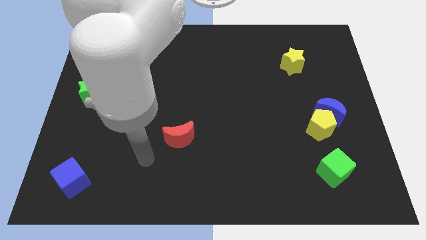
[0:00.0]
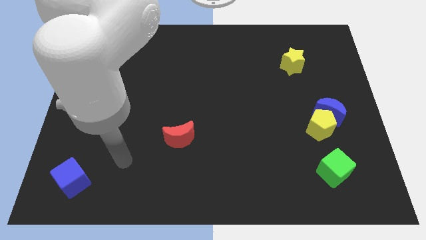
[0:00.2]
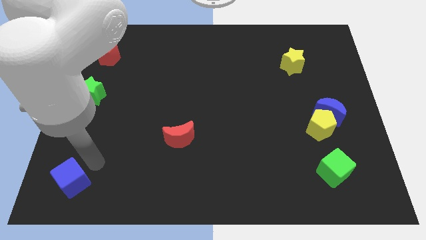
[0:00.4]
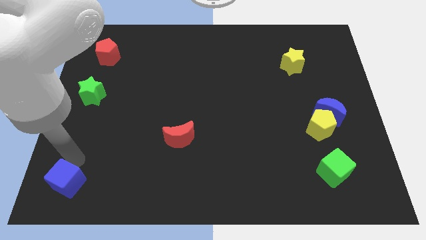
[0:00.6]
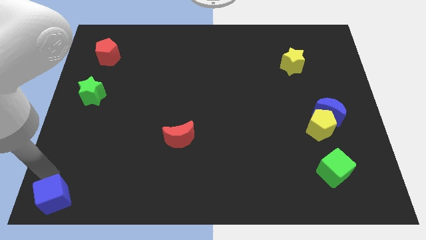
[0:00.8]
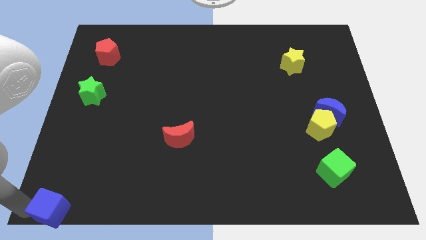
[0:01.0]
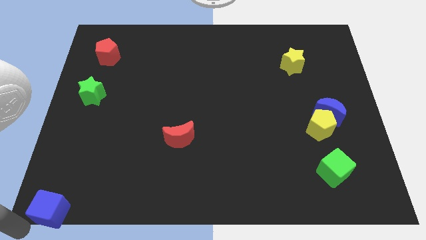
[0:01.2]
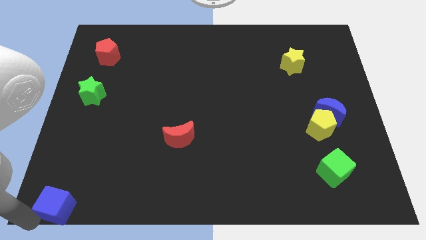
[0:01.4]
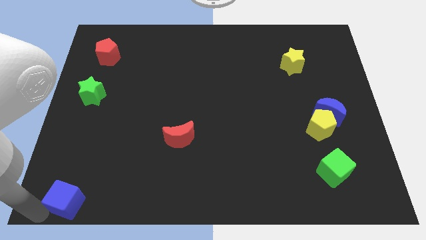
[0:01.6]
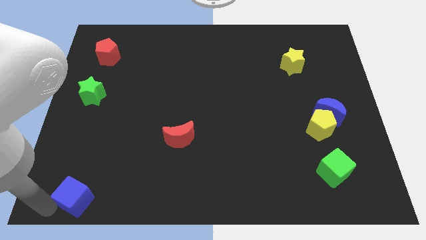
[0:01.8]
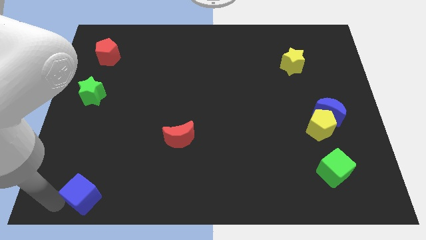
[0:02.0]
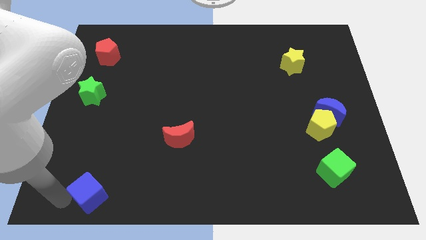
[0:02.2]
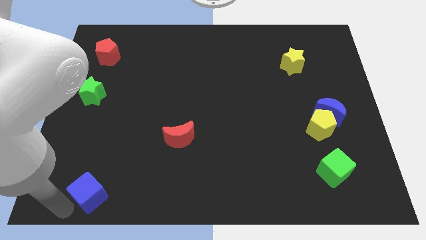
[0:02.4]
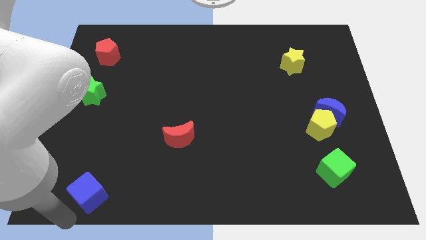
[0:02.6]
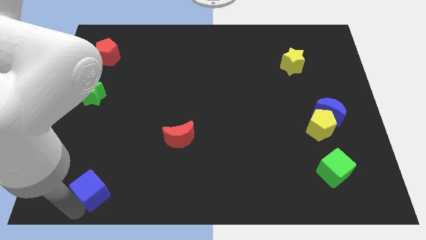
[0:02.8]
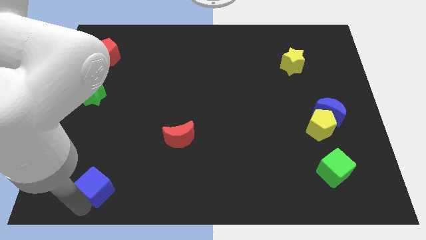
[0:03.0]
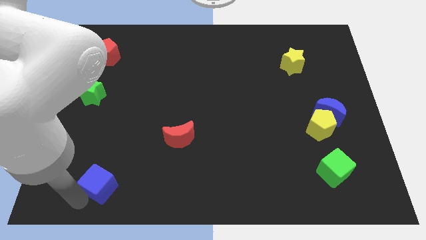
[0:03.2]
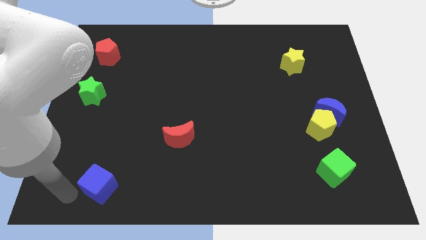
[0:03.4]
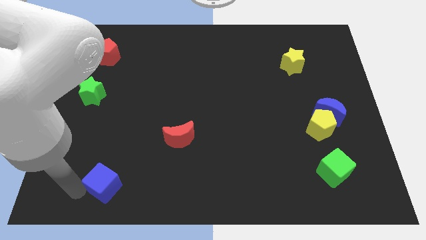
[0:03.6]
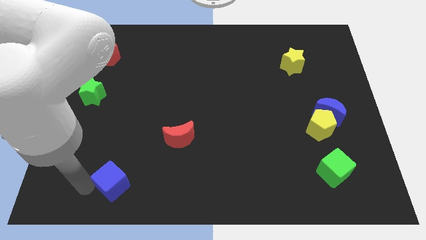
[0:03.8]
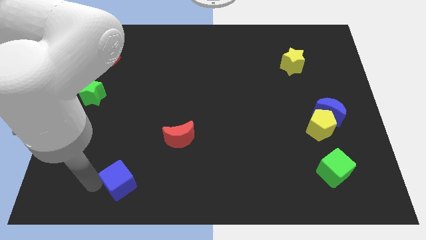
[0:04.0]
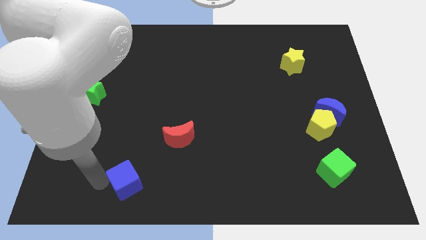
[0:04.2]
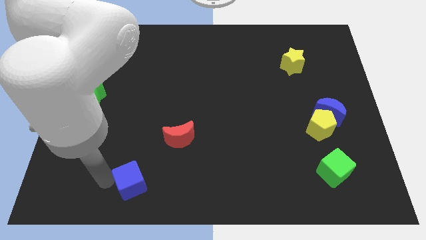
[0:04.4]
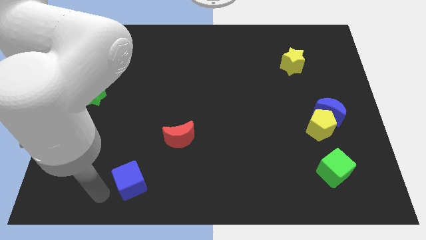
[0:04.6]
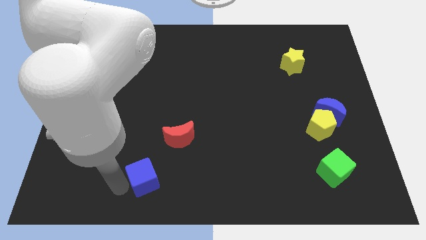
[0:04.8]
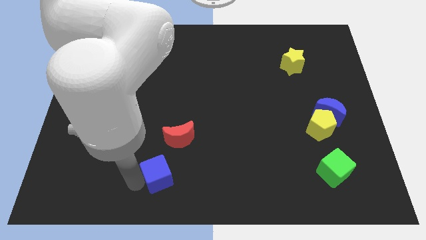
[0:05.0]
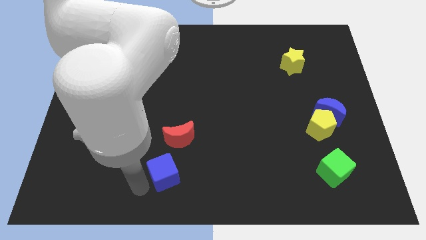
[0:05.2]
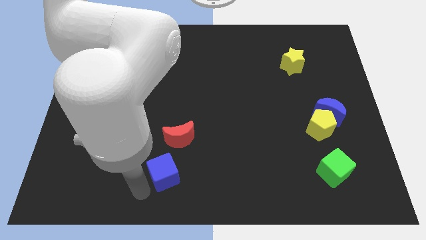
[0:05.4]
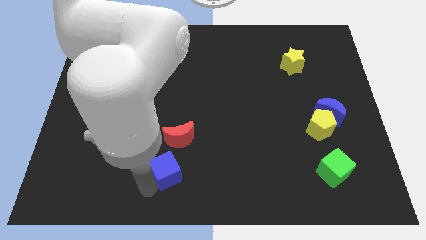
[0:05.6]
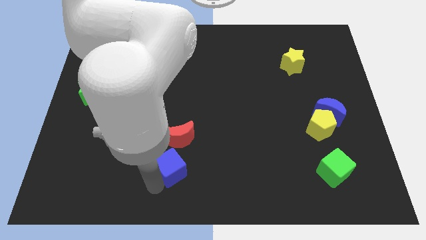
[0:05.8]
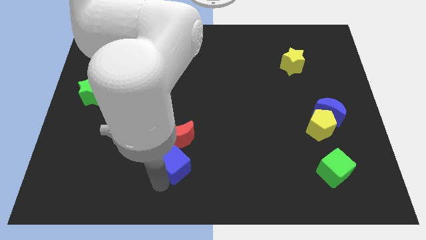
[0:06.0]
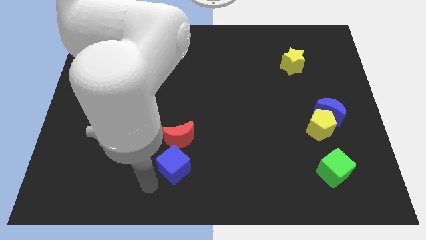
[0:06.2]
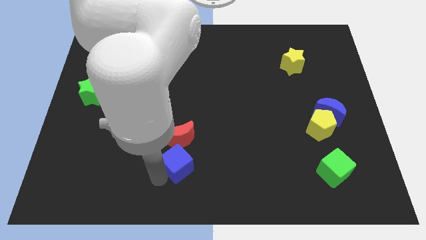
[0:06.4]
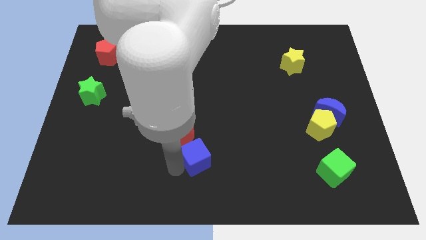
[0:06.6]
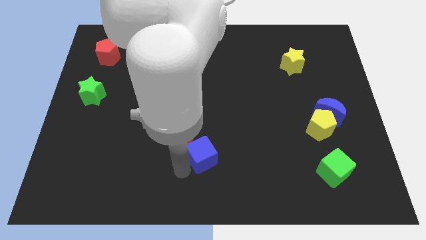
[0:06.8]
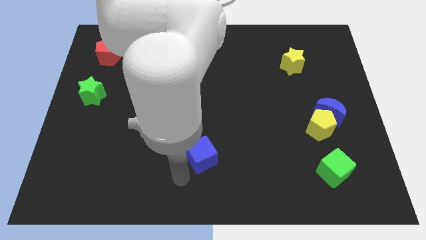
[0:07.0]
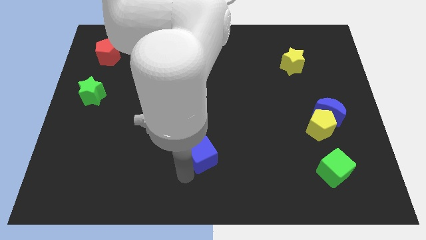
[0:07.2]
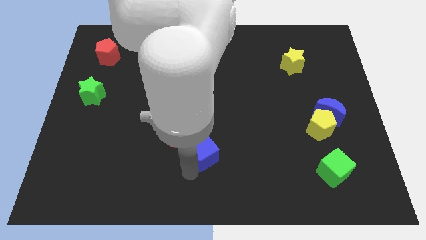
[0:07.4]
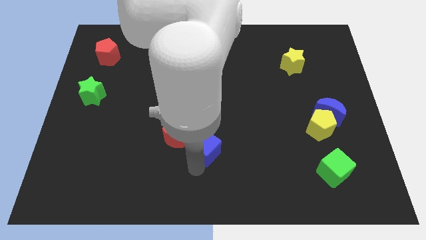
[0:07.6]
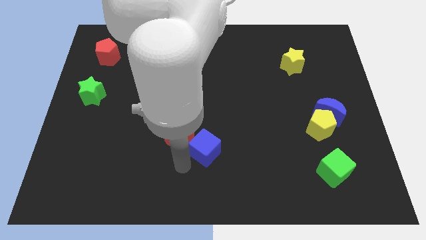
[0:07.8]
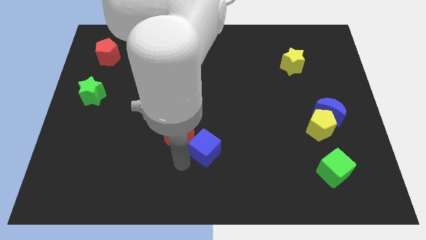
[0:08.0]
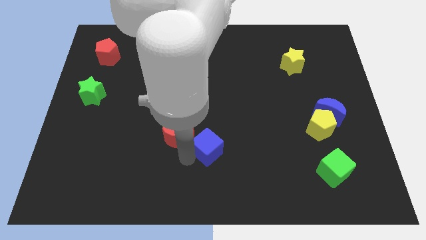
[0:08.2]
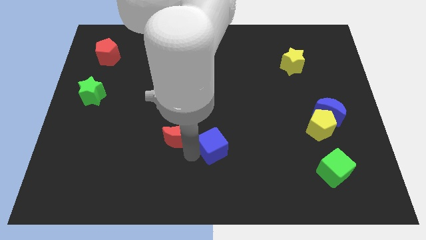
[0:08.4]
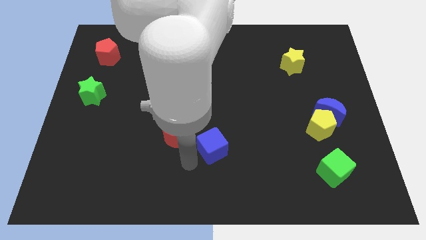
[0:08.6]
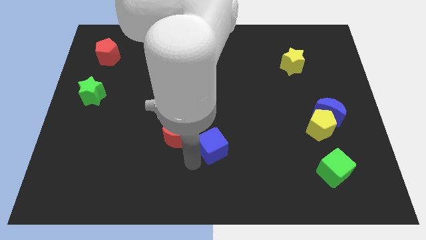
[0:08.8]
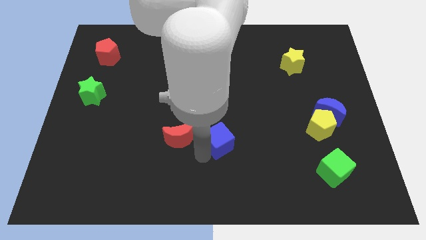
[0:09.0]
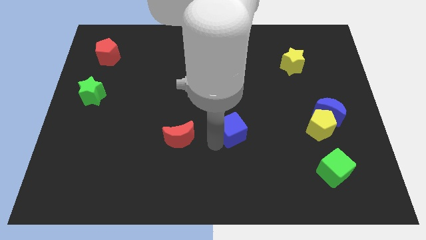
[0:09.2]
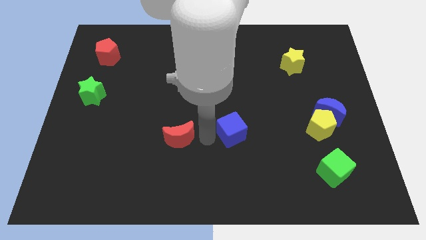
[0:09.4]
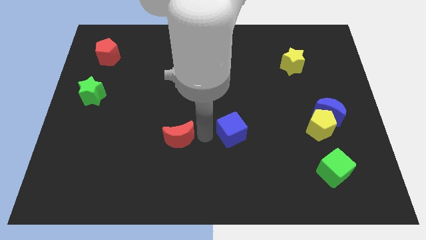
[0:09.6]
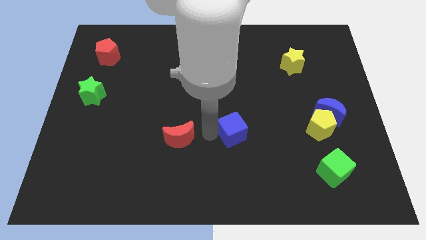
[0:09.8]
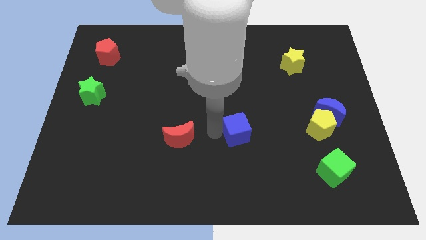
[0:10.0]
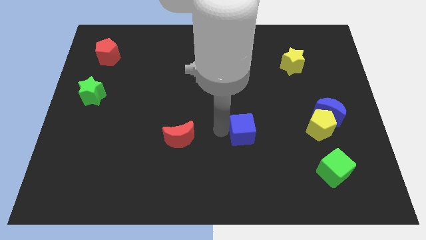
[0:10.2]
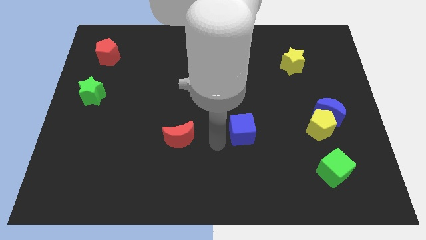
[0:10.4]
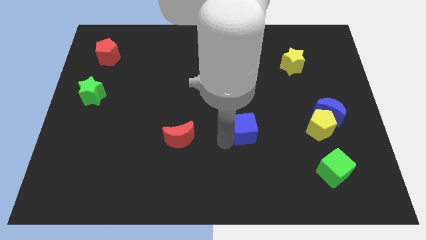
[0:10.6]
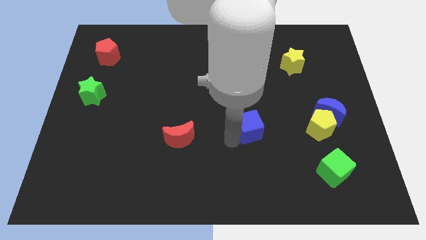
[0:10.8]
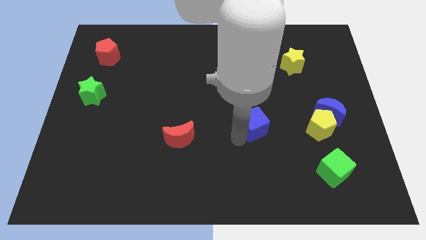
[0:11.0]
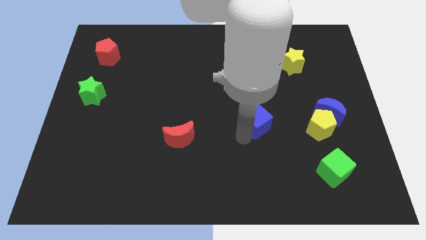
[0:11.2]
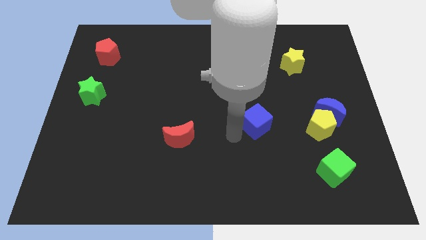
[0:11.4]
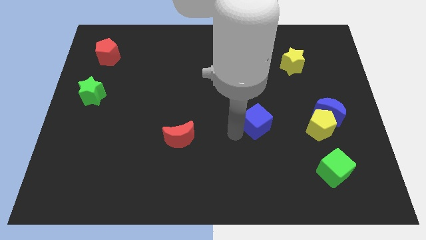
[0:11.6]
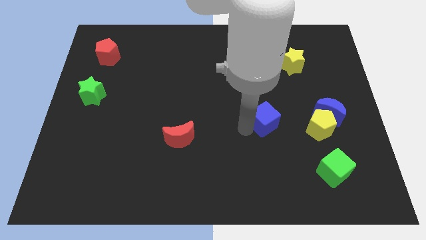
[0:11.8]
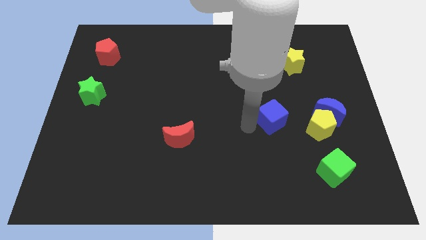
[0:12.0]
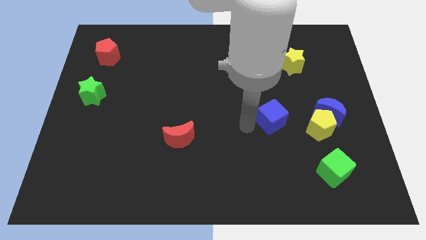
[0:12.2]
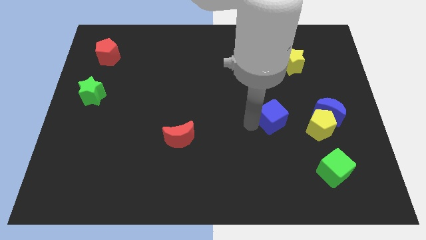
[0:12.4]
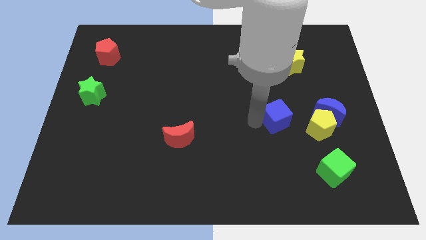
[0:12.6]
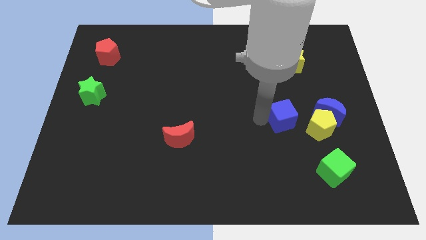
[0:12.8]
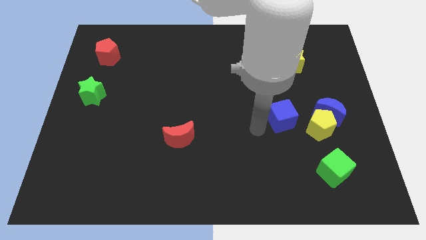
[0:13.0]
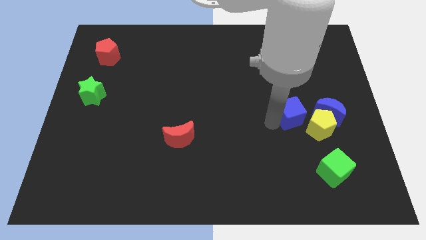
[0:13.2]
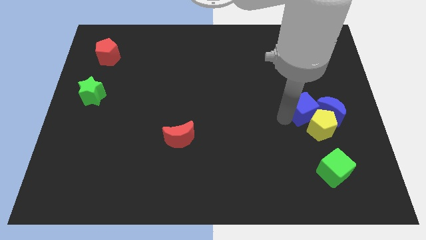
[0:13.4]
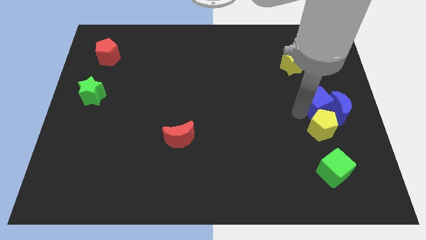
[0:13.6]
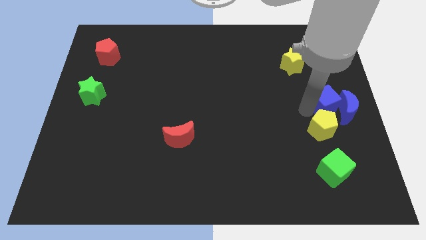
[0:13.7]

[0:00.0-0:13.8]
put the blue cube to the right side
